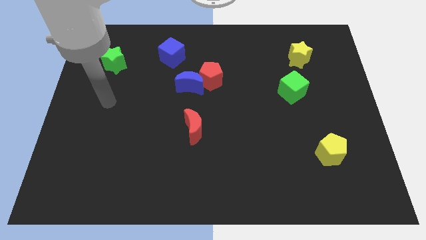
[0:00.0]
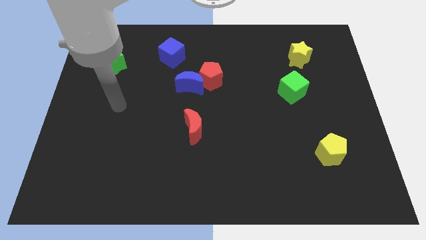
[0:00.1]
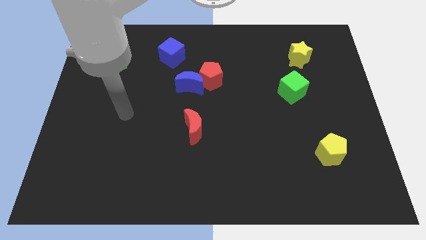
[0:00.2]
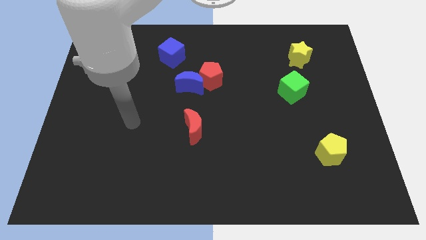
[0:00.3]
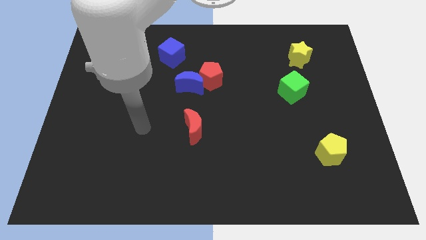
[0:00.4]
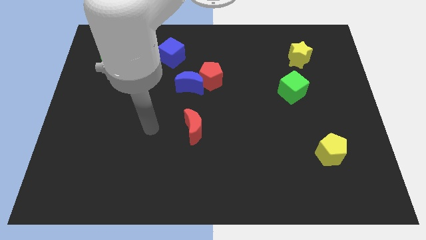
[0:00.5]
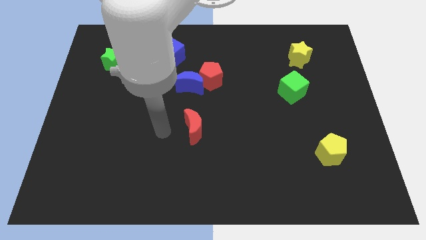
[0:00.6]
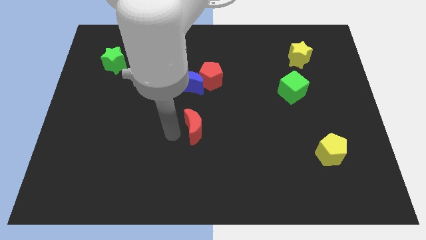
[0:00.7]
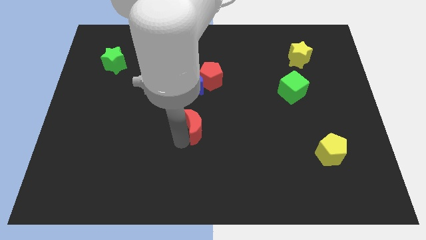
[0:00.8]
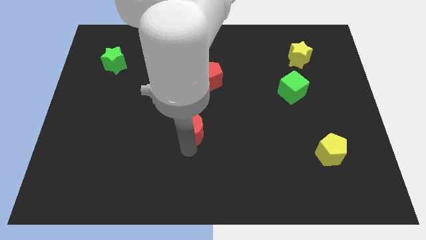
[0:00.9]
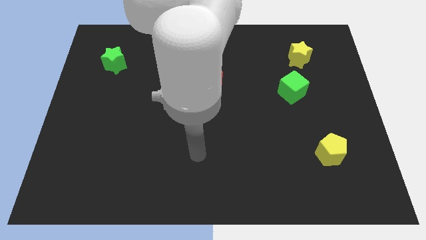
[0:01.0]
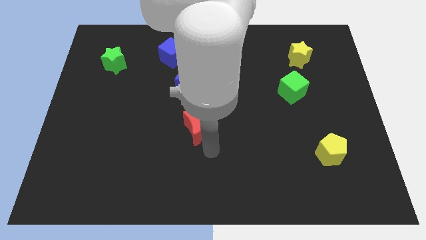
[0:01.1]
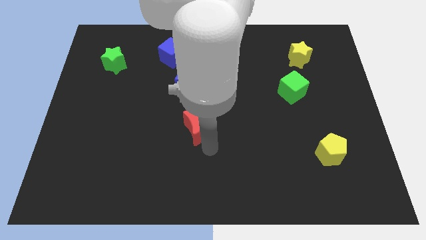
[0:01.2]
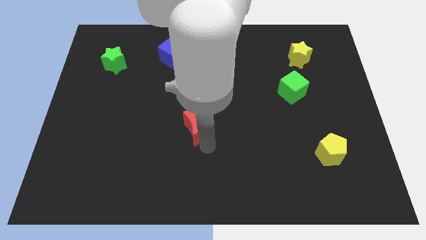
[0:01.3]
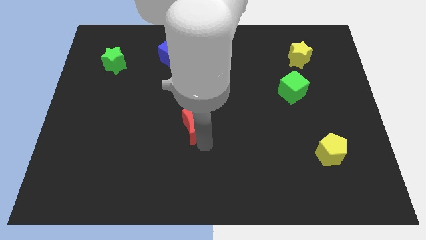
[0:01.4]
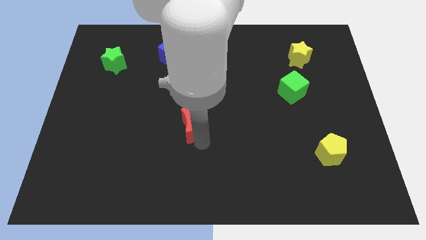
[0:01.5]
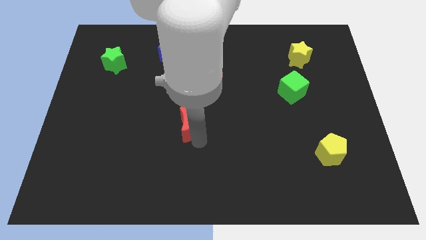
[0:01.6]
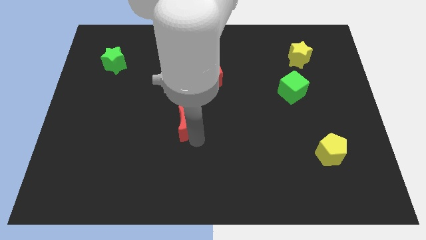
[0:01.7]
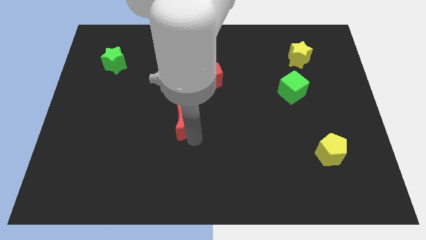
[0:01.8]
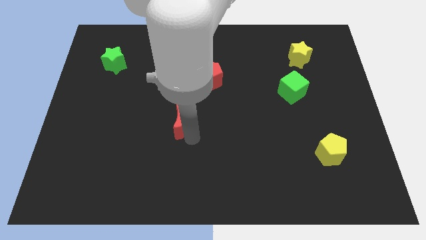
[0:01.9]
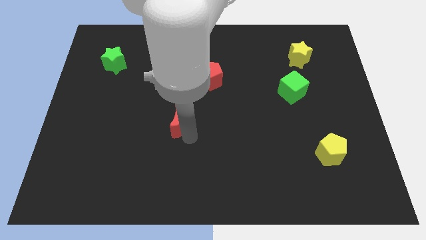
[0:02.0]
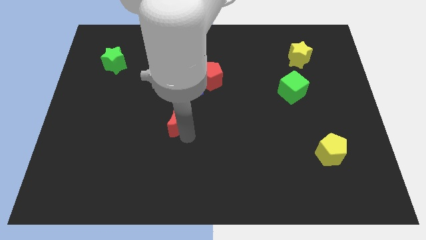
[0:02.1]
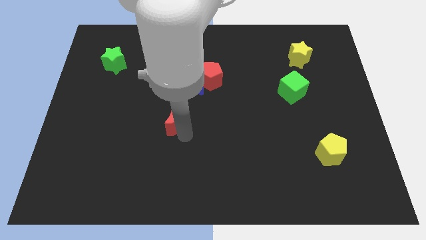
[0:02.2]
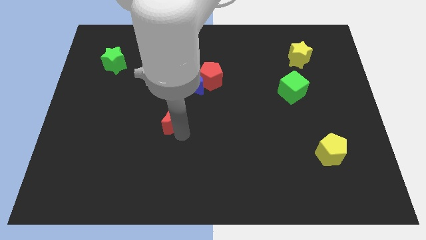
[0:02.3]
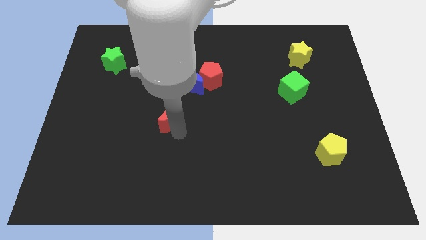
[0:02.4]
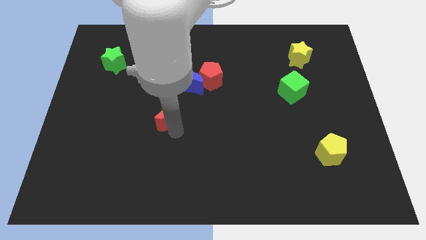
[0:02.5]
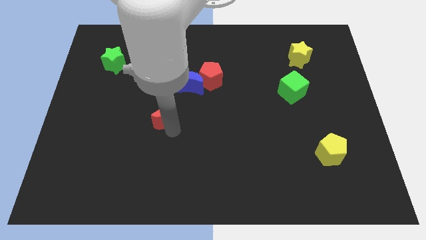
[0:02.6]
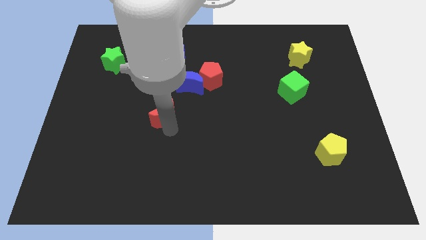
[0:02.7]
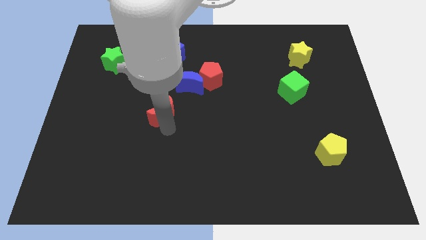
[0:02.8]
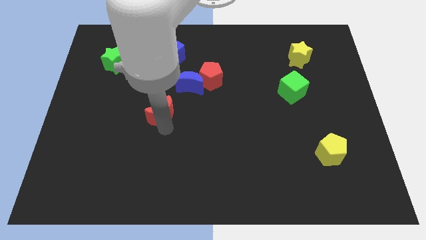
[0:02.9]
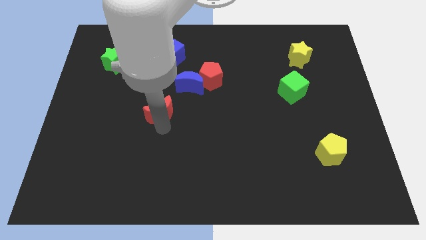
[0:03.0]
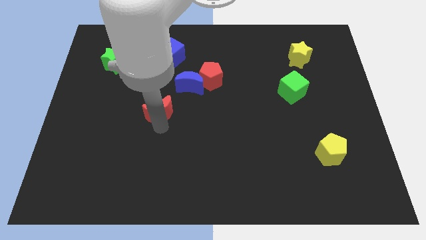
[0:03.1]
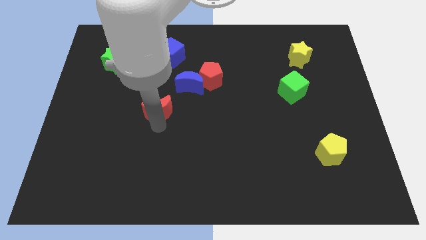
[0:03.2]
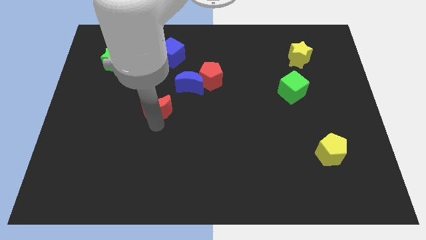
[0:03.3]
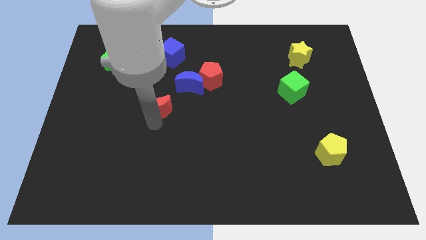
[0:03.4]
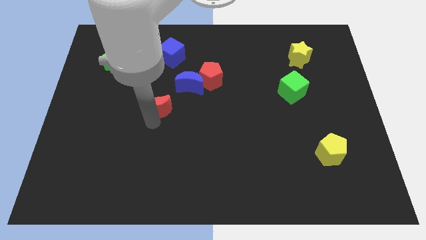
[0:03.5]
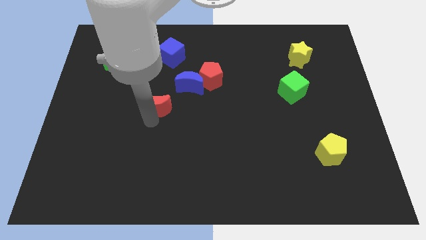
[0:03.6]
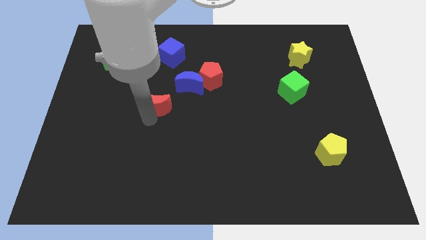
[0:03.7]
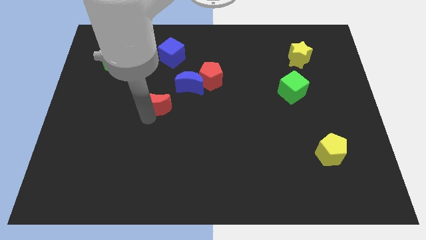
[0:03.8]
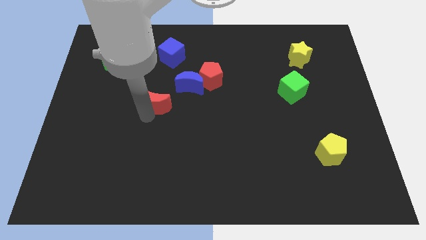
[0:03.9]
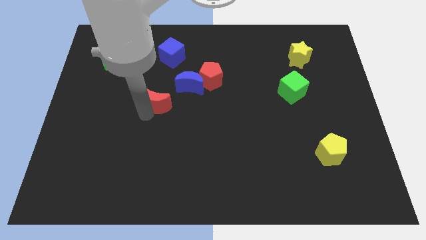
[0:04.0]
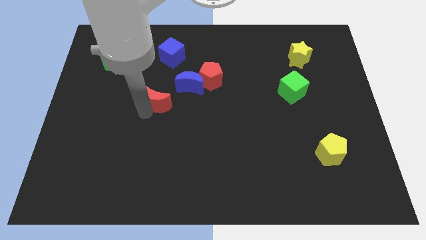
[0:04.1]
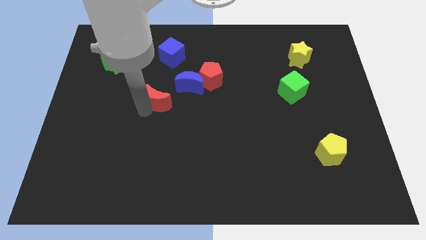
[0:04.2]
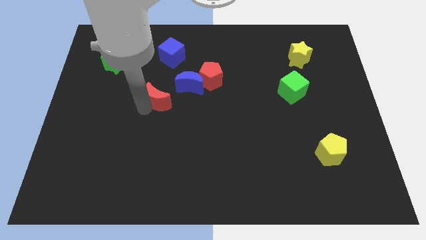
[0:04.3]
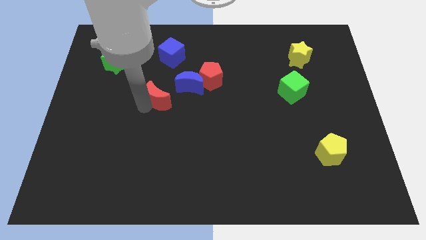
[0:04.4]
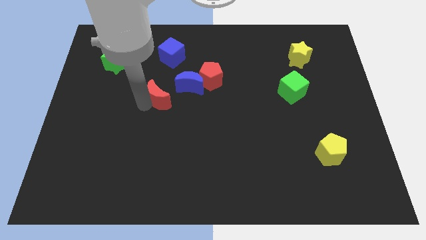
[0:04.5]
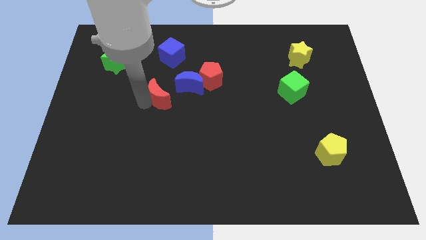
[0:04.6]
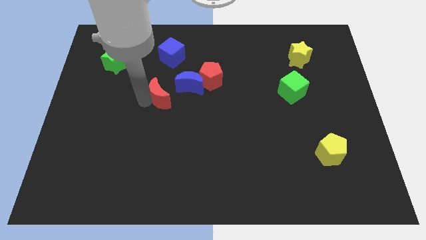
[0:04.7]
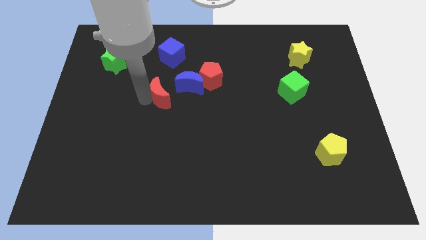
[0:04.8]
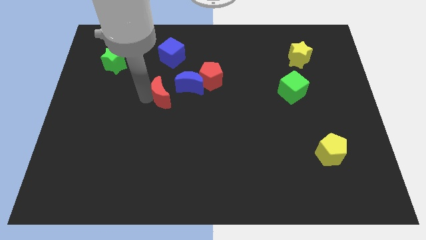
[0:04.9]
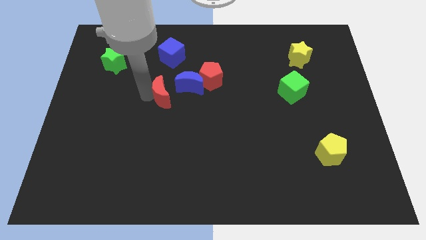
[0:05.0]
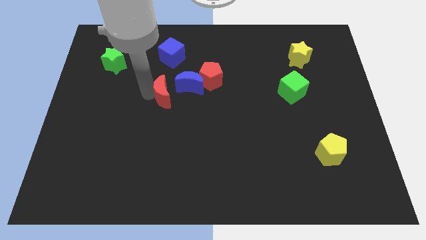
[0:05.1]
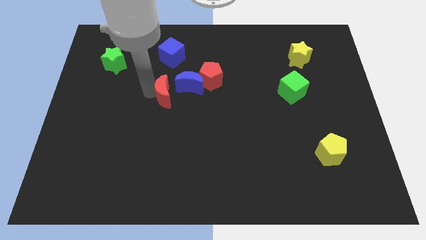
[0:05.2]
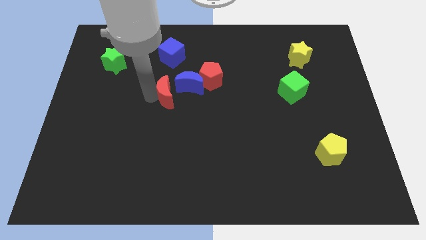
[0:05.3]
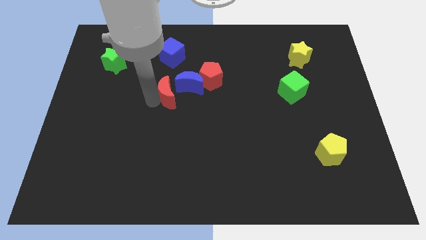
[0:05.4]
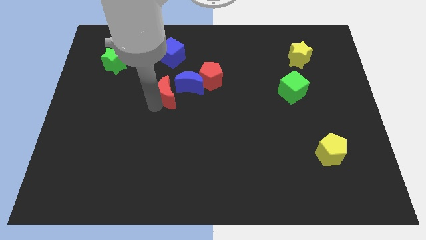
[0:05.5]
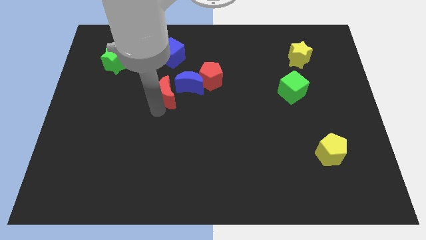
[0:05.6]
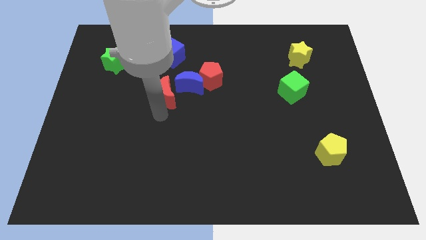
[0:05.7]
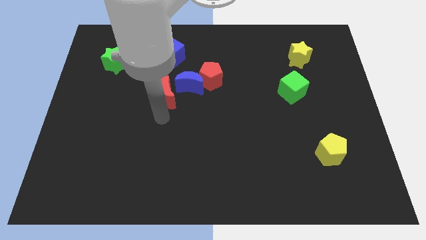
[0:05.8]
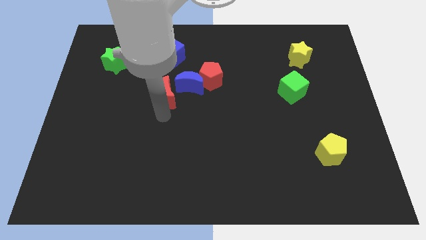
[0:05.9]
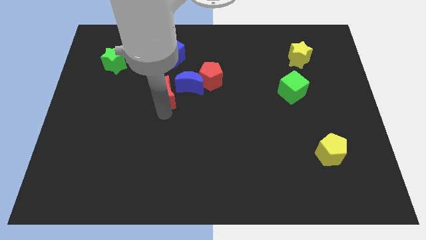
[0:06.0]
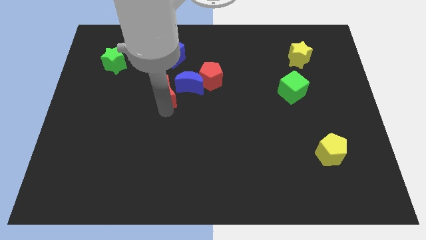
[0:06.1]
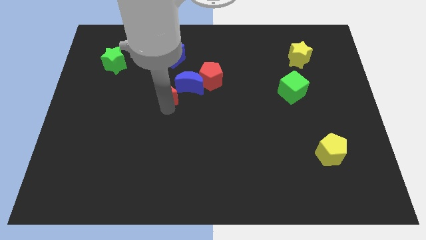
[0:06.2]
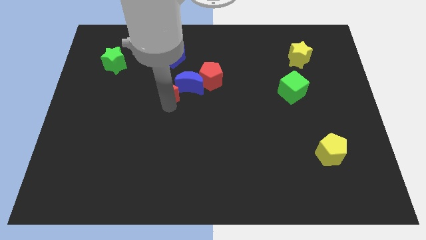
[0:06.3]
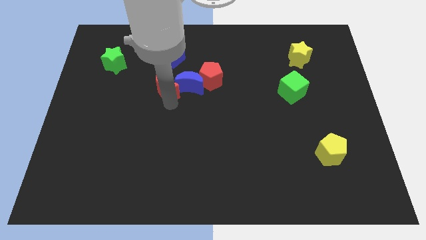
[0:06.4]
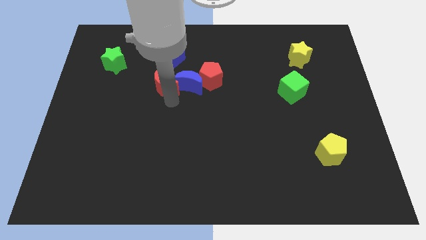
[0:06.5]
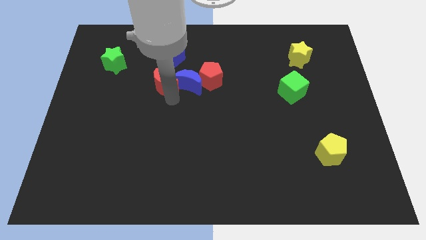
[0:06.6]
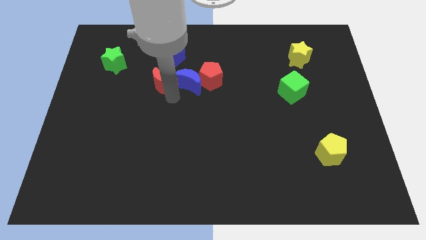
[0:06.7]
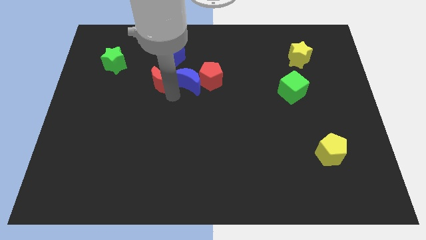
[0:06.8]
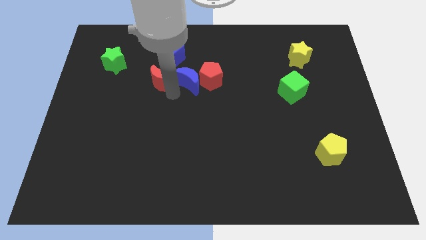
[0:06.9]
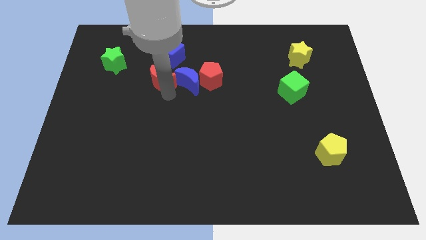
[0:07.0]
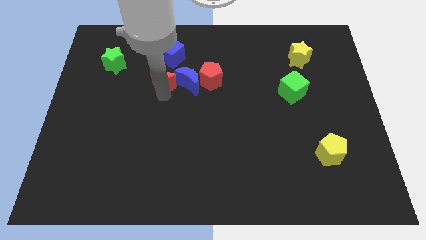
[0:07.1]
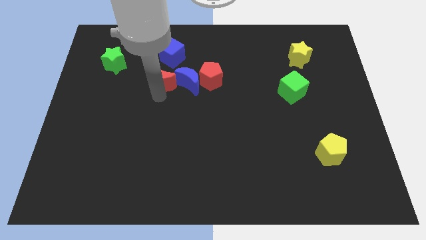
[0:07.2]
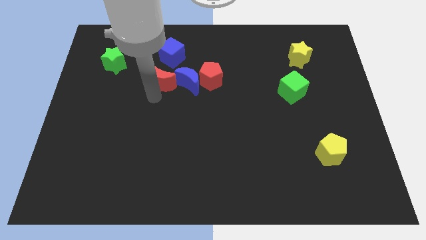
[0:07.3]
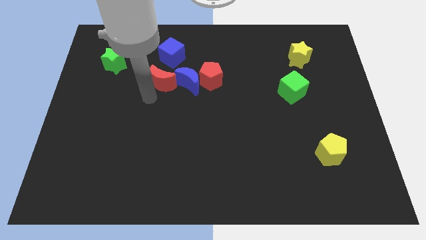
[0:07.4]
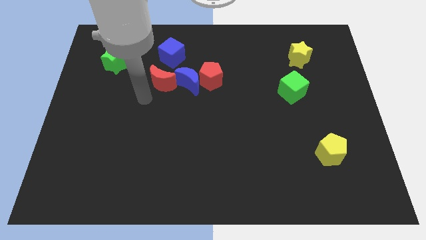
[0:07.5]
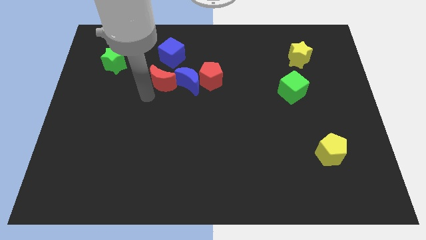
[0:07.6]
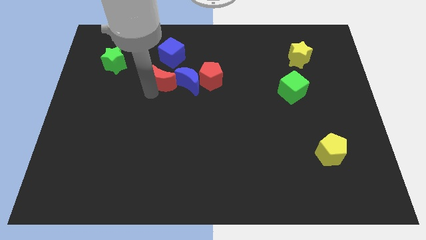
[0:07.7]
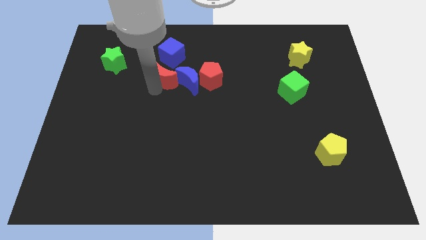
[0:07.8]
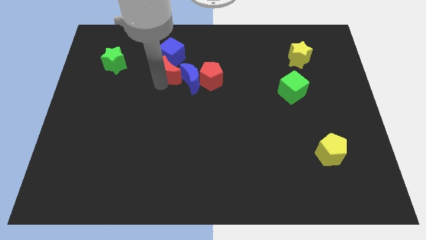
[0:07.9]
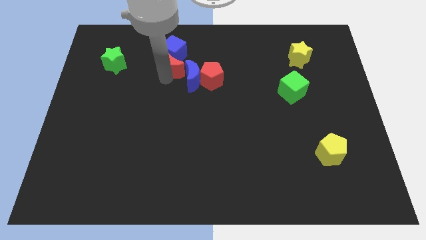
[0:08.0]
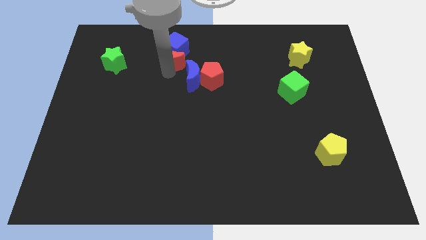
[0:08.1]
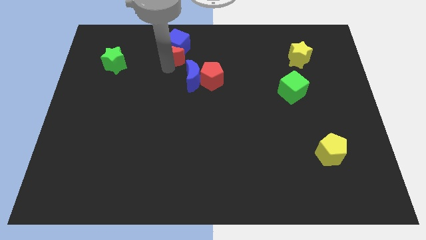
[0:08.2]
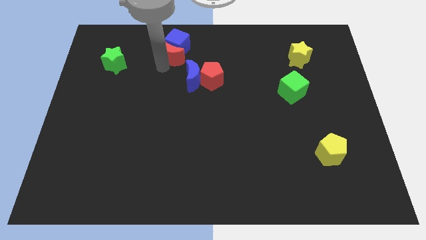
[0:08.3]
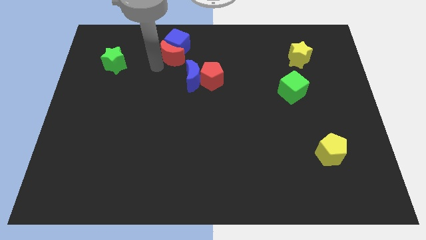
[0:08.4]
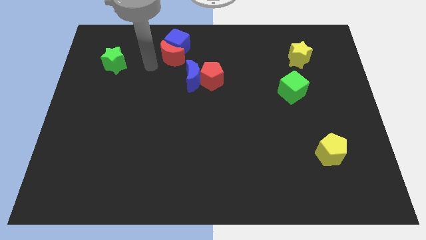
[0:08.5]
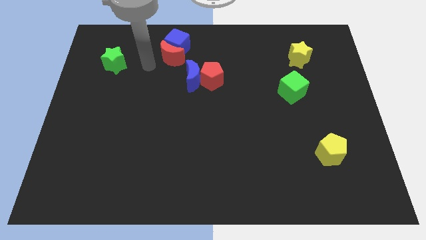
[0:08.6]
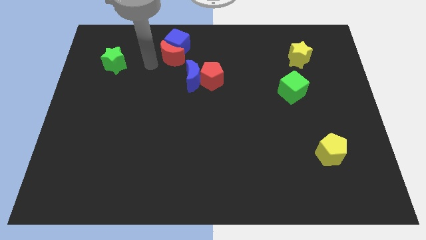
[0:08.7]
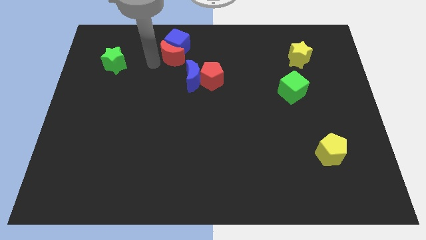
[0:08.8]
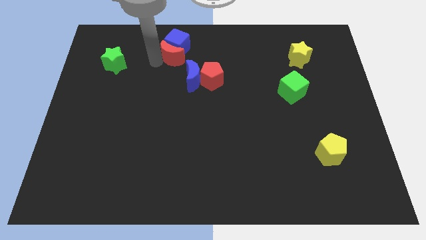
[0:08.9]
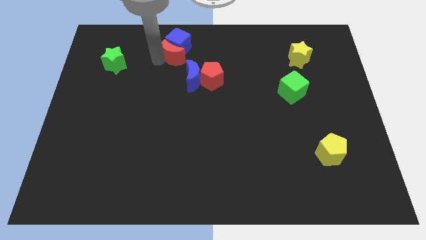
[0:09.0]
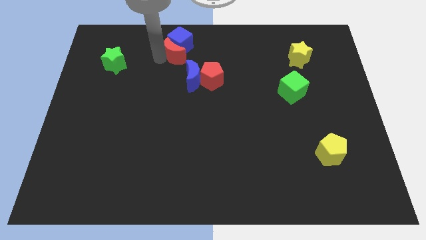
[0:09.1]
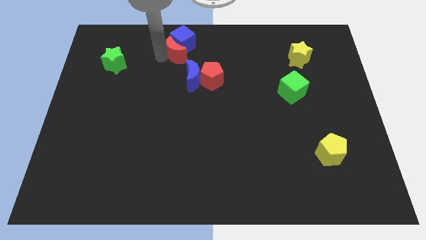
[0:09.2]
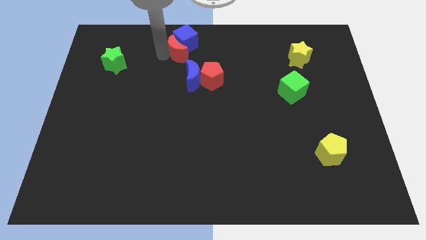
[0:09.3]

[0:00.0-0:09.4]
put the red moon to the top of the blue moon
